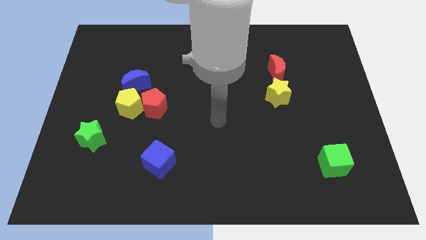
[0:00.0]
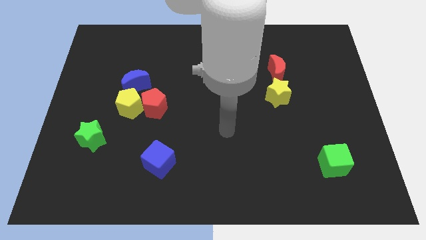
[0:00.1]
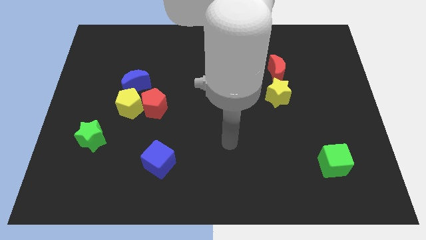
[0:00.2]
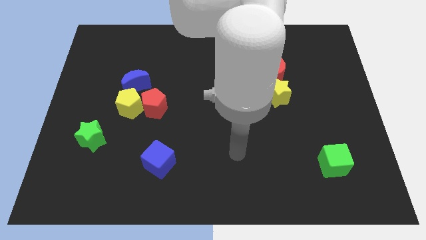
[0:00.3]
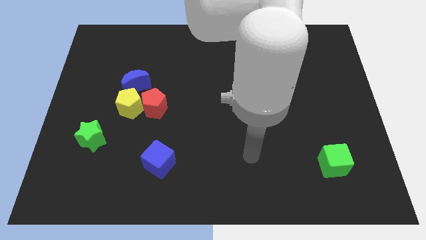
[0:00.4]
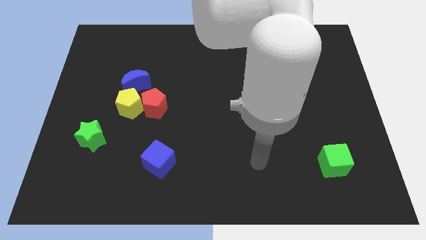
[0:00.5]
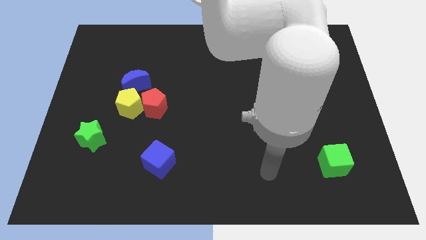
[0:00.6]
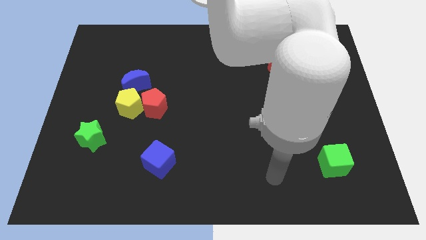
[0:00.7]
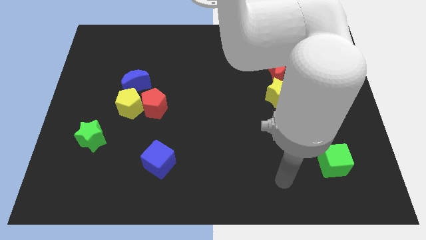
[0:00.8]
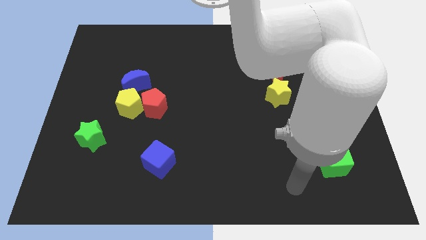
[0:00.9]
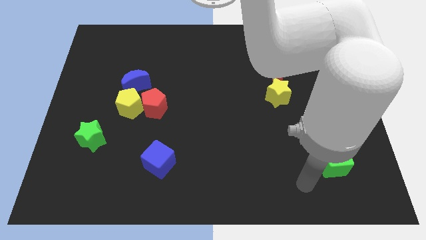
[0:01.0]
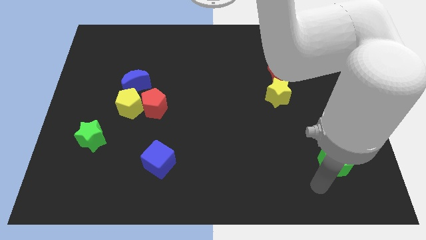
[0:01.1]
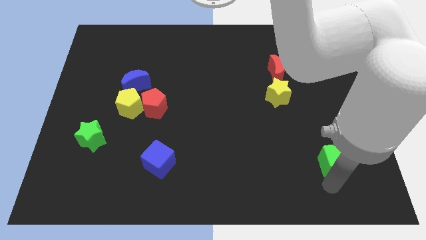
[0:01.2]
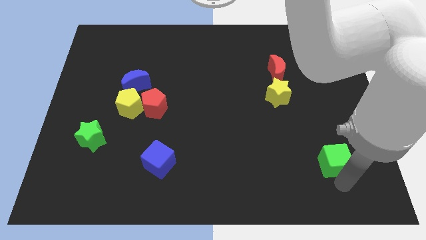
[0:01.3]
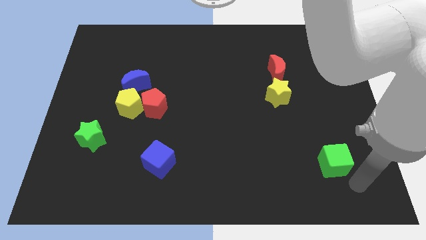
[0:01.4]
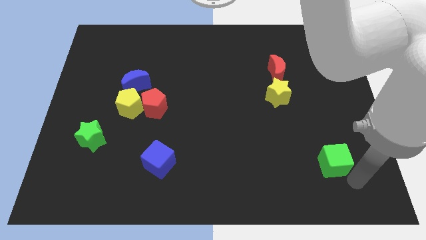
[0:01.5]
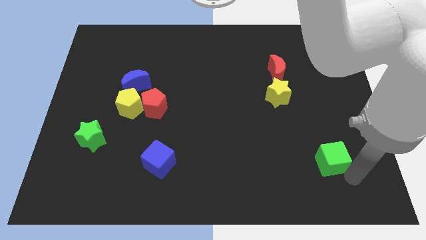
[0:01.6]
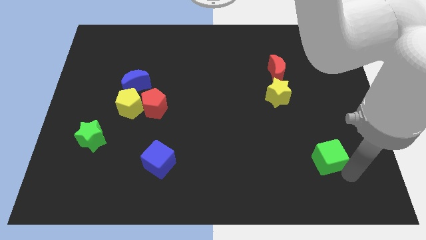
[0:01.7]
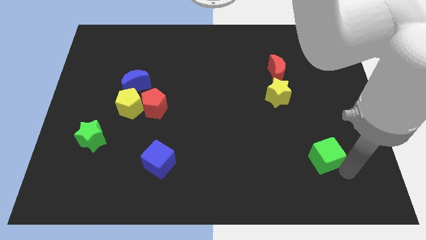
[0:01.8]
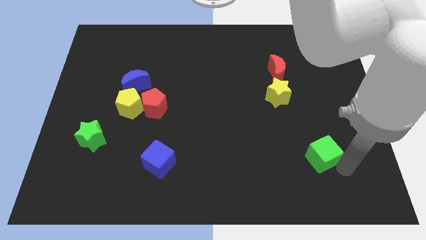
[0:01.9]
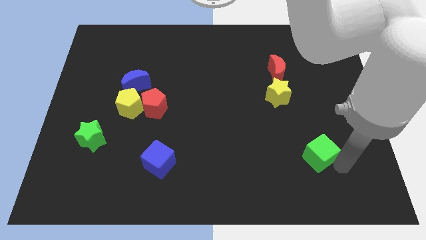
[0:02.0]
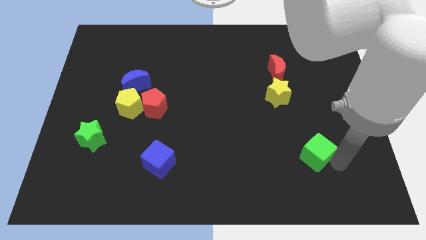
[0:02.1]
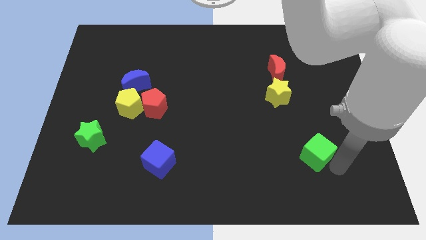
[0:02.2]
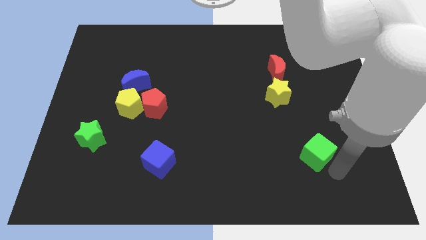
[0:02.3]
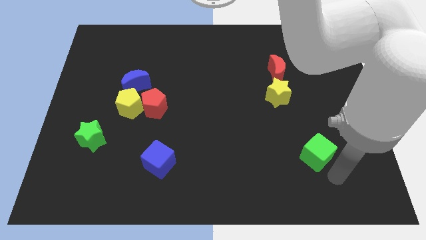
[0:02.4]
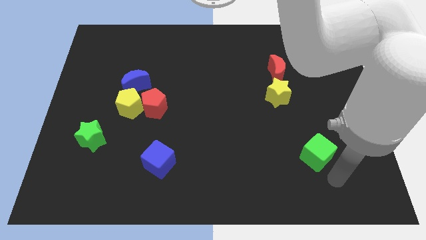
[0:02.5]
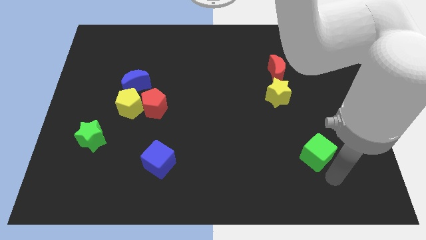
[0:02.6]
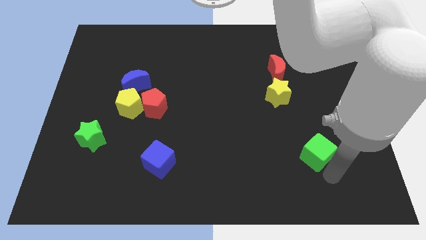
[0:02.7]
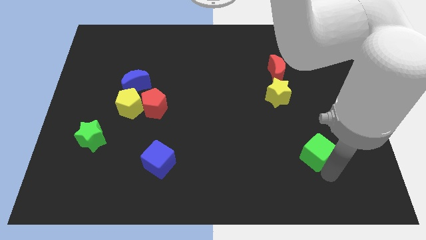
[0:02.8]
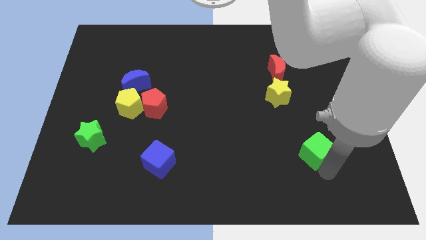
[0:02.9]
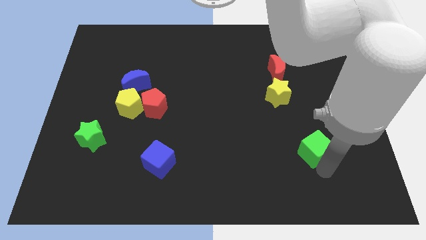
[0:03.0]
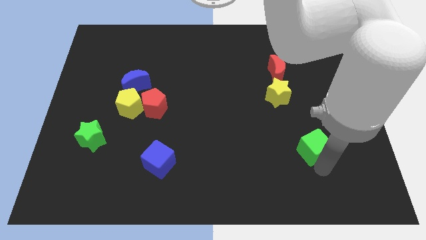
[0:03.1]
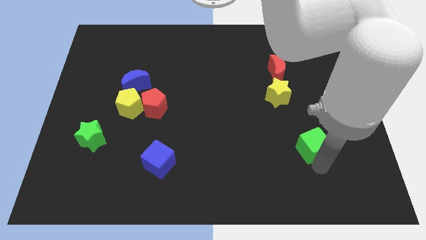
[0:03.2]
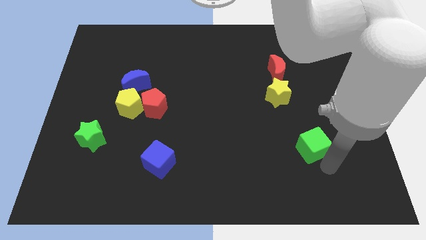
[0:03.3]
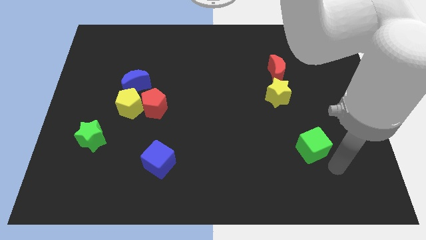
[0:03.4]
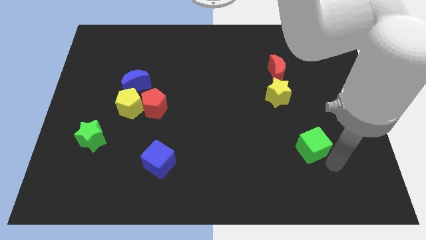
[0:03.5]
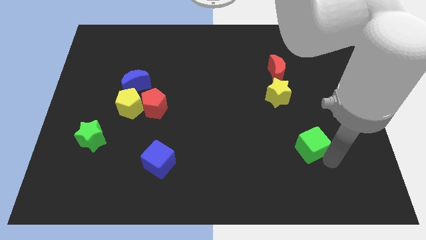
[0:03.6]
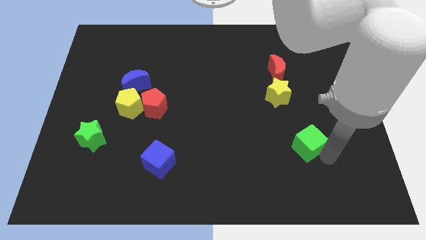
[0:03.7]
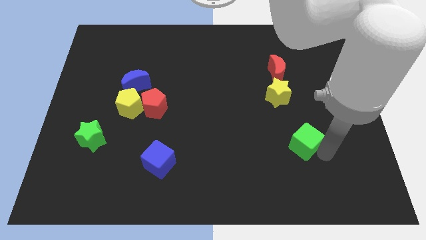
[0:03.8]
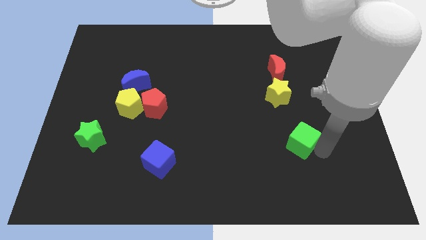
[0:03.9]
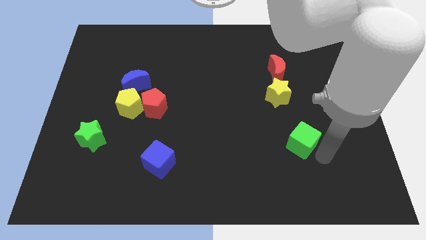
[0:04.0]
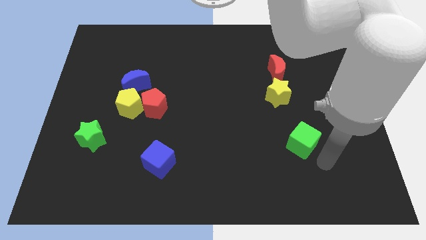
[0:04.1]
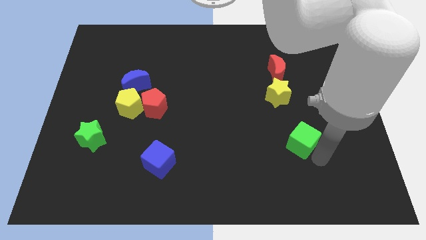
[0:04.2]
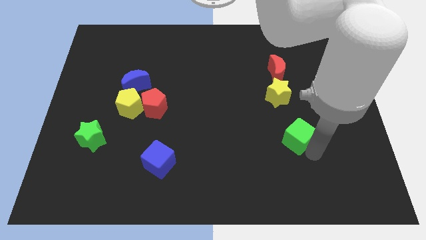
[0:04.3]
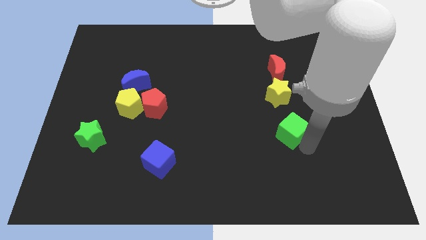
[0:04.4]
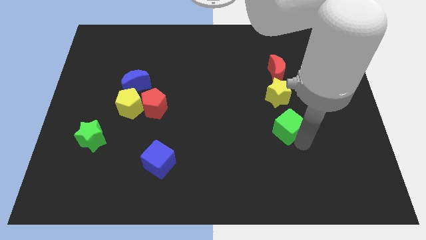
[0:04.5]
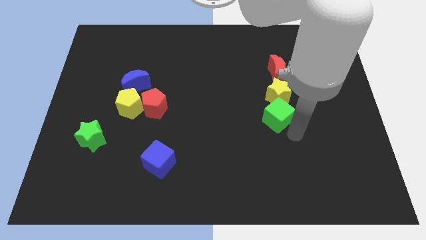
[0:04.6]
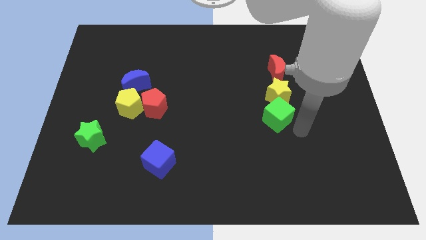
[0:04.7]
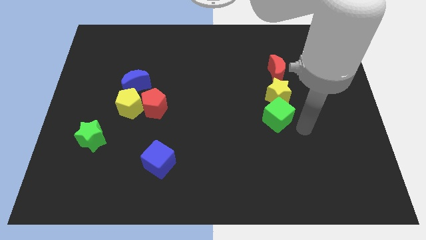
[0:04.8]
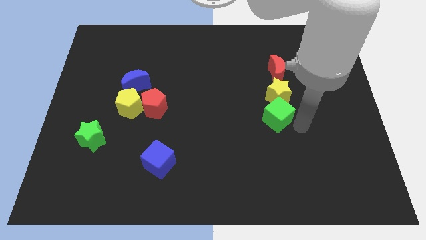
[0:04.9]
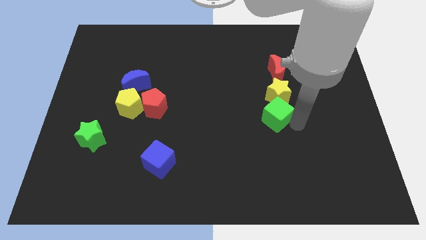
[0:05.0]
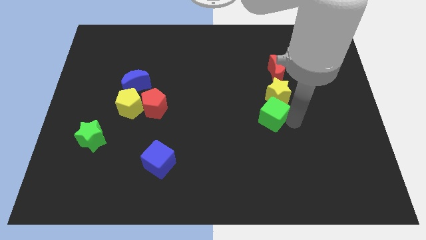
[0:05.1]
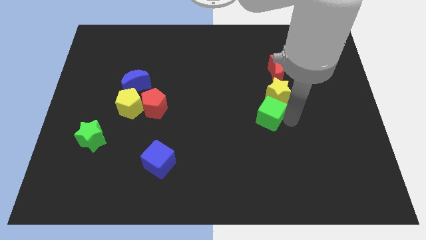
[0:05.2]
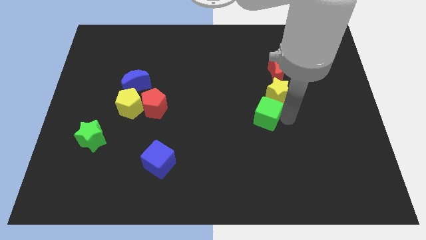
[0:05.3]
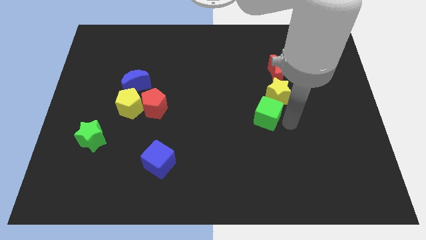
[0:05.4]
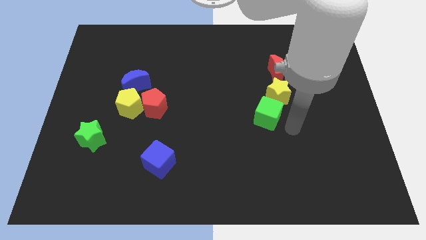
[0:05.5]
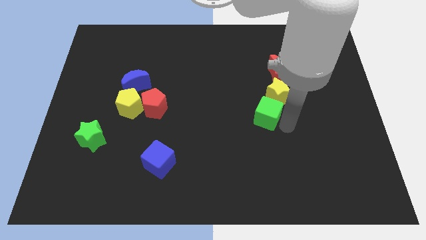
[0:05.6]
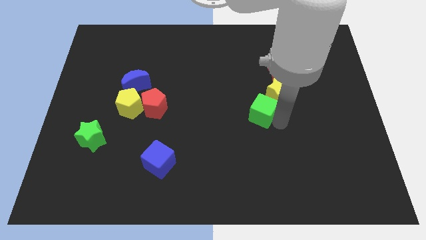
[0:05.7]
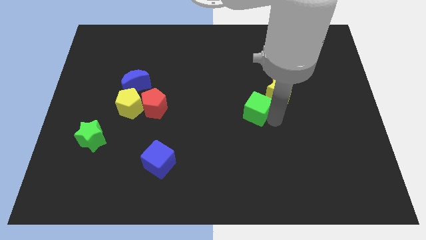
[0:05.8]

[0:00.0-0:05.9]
slide the green cube up and to the left diagonally

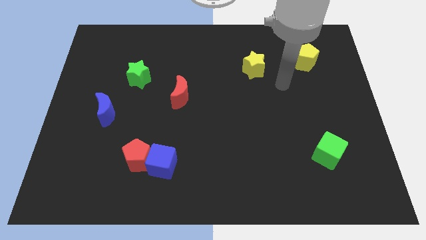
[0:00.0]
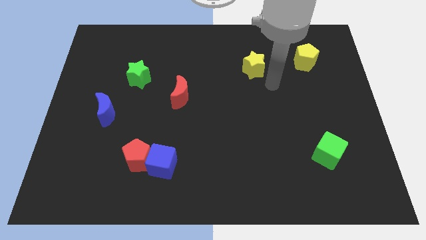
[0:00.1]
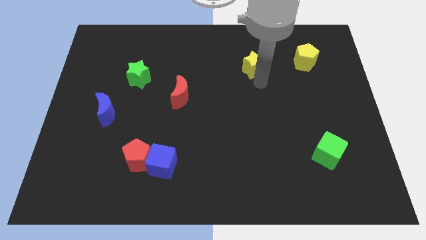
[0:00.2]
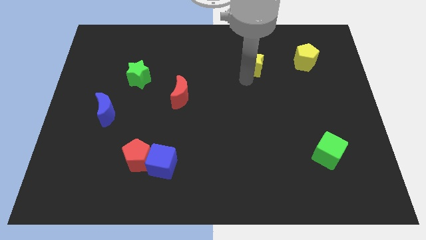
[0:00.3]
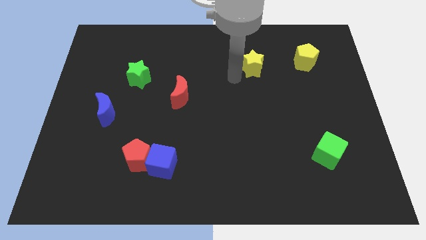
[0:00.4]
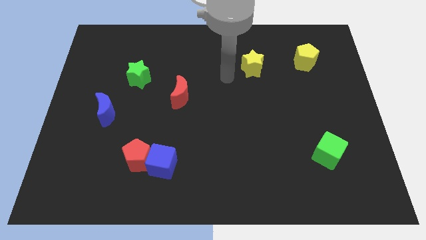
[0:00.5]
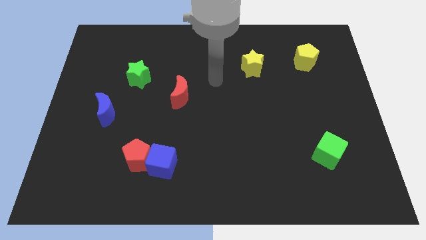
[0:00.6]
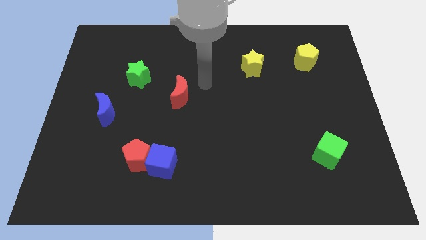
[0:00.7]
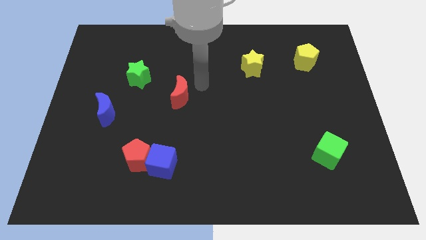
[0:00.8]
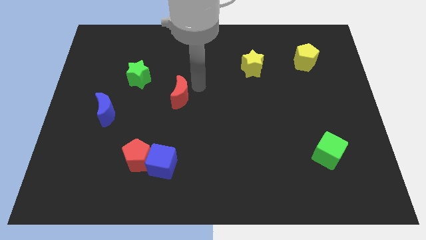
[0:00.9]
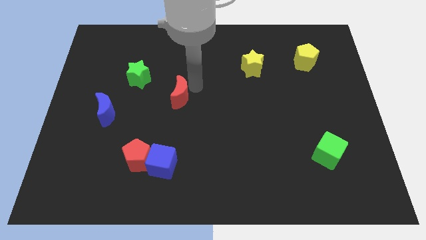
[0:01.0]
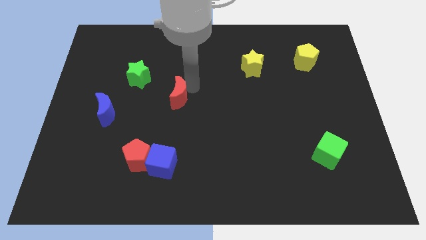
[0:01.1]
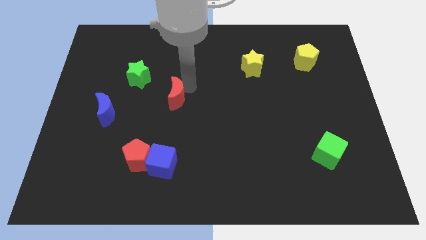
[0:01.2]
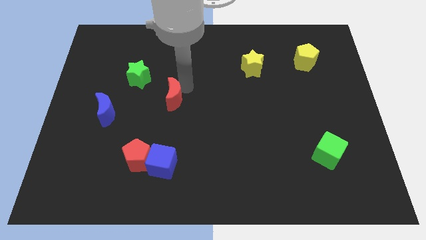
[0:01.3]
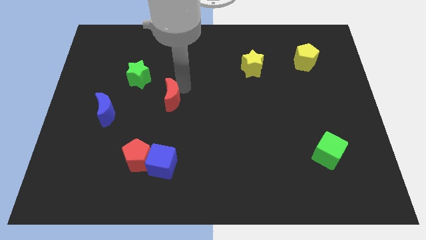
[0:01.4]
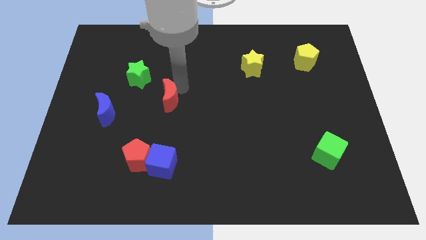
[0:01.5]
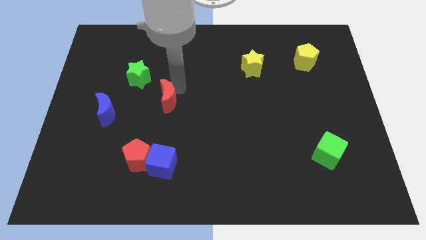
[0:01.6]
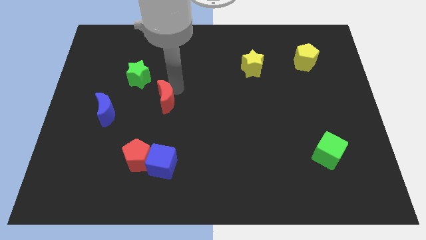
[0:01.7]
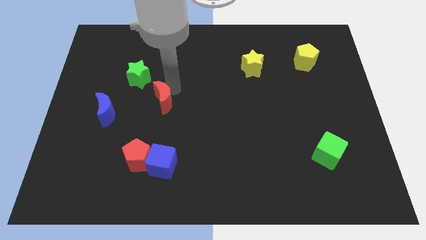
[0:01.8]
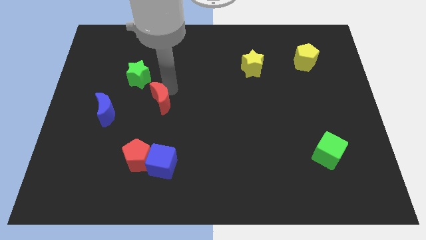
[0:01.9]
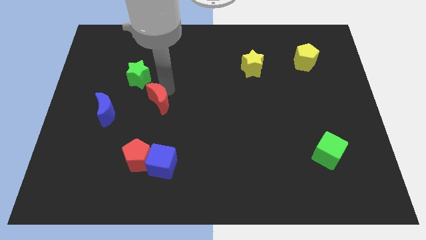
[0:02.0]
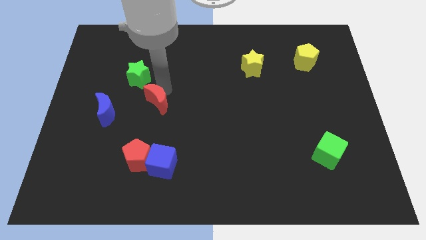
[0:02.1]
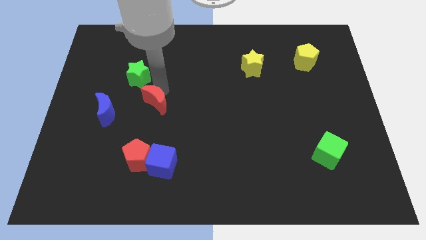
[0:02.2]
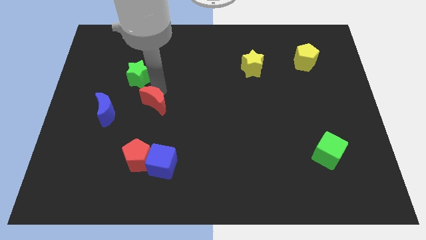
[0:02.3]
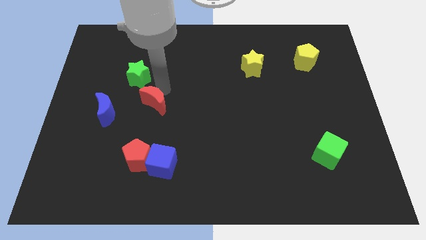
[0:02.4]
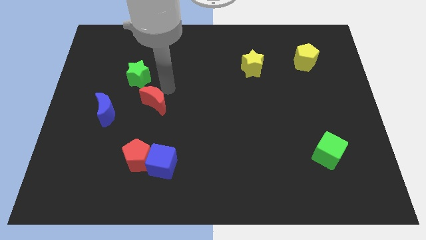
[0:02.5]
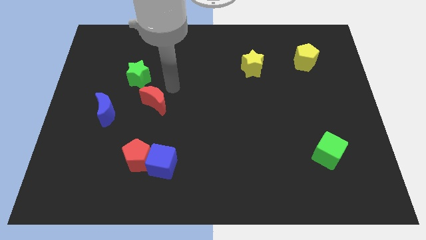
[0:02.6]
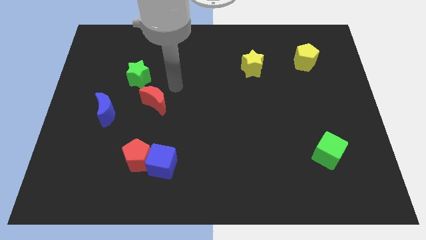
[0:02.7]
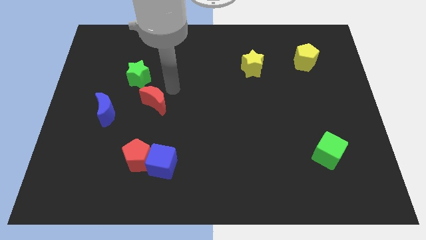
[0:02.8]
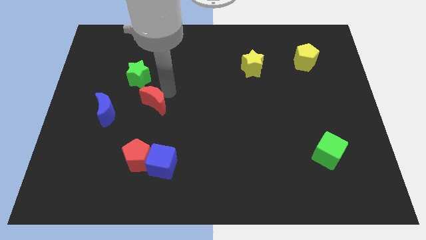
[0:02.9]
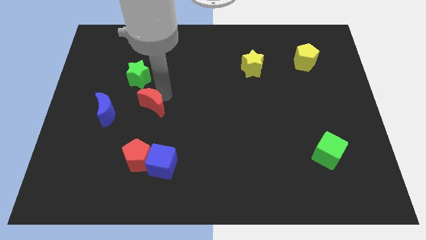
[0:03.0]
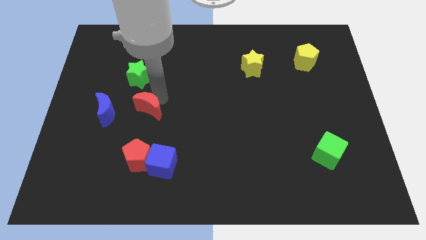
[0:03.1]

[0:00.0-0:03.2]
move the red moon a little bit downwards and then left
